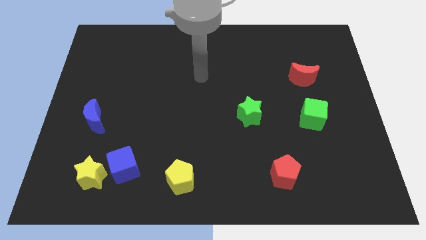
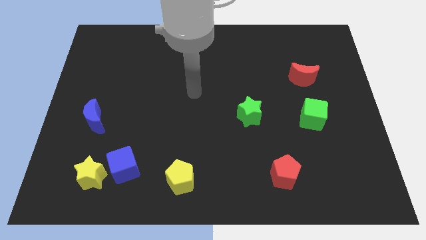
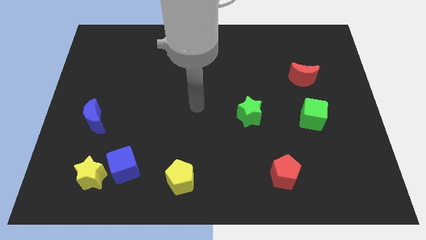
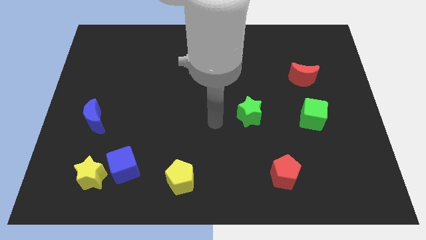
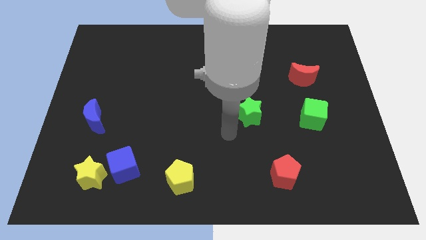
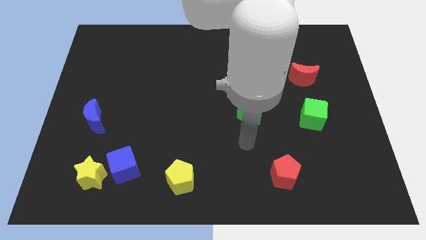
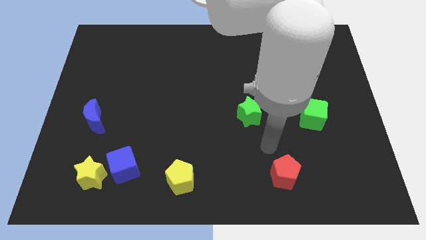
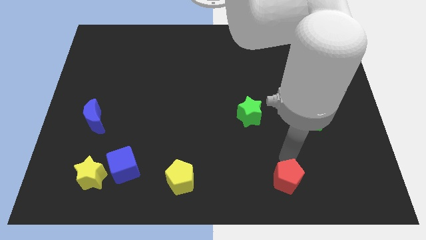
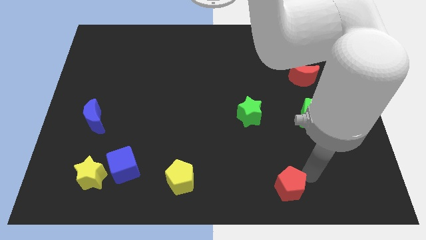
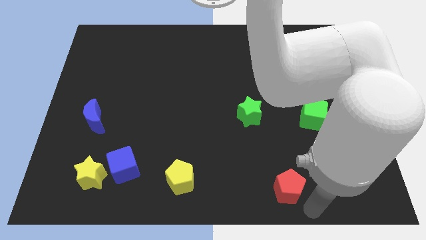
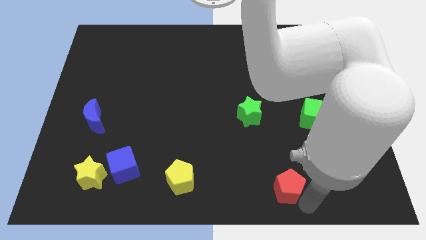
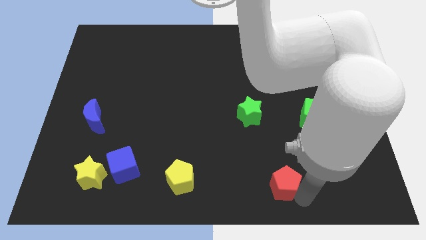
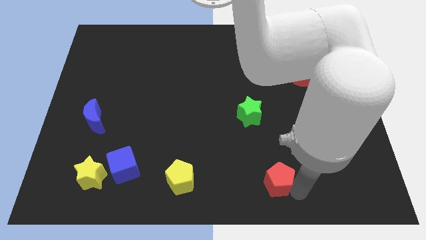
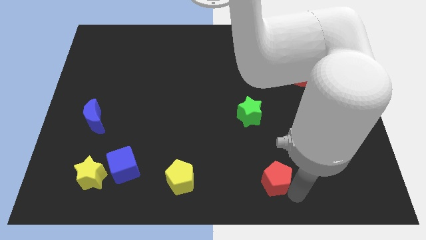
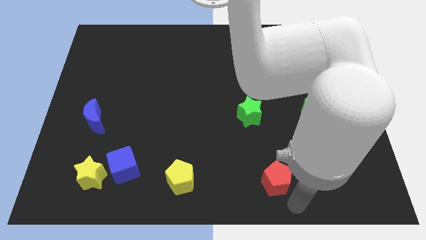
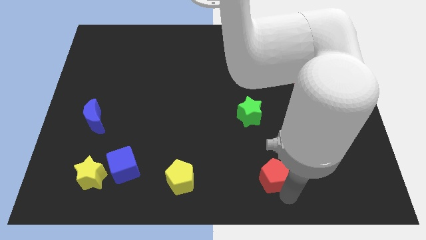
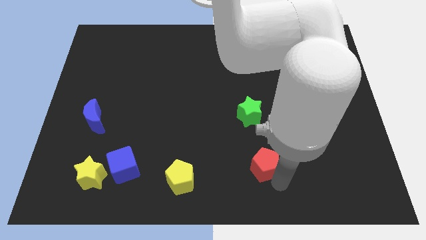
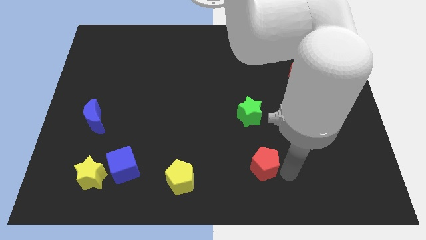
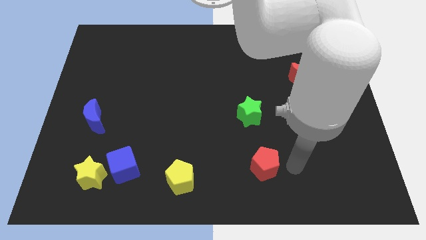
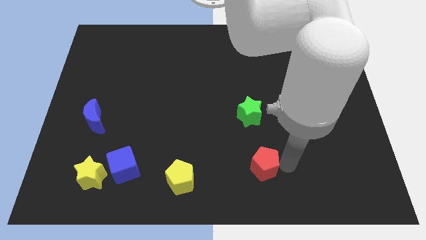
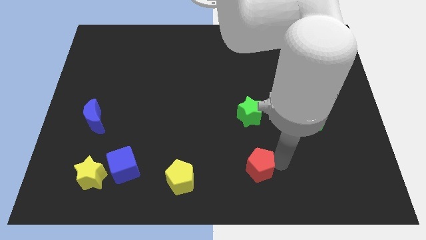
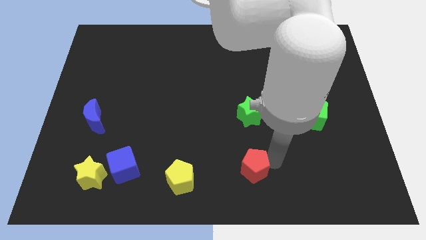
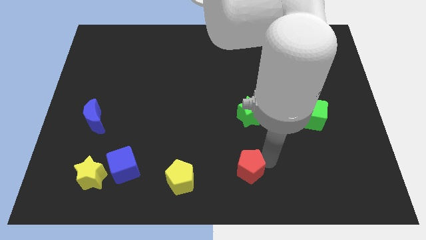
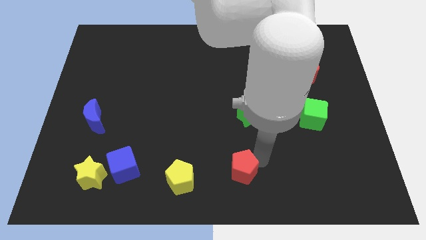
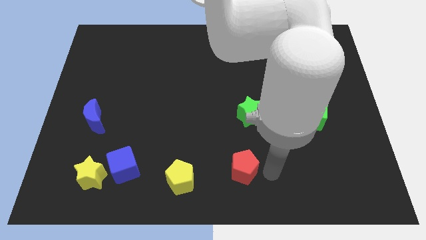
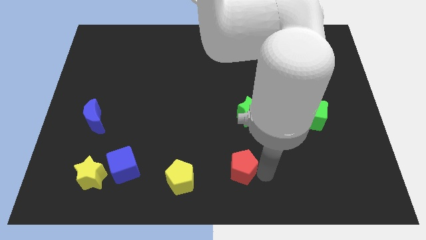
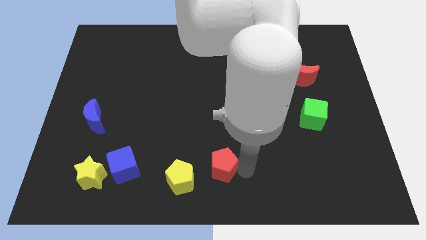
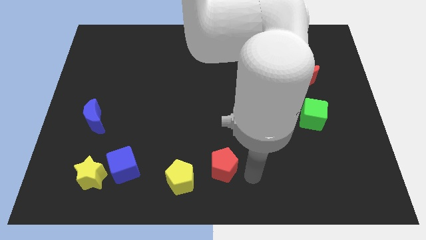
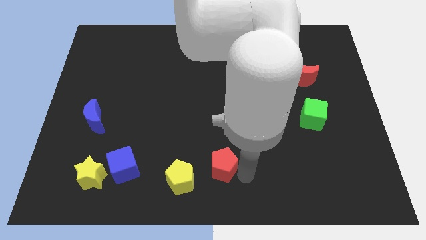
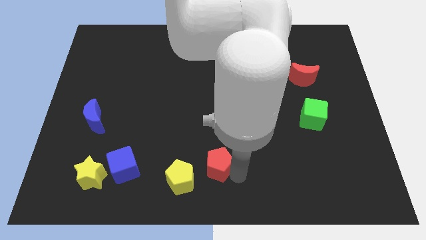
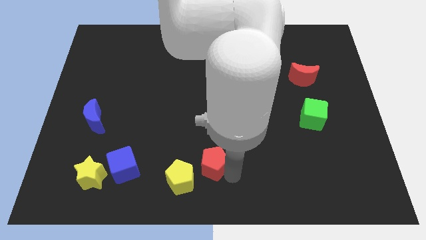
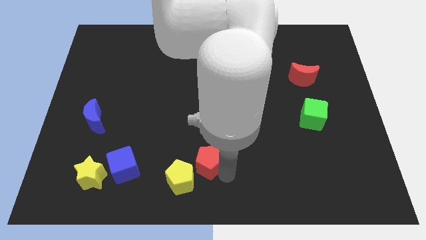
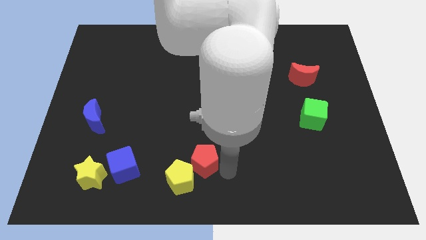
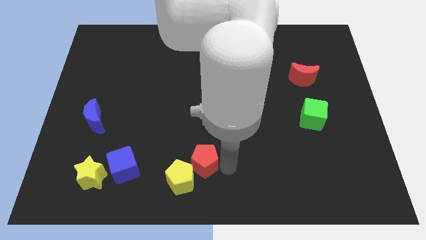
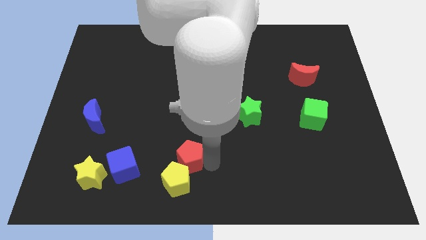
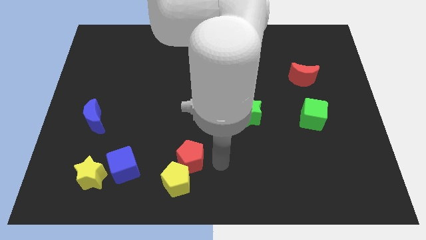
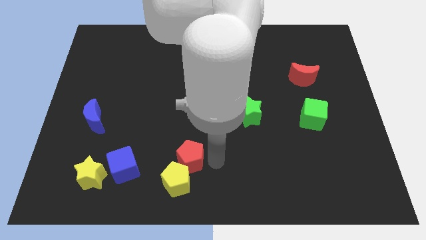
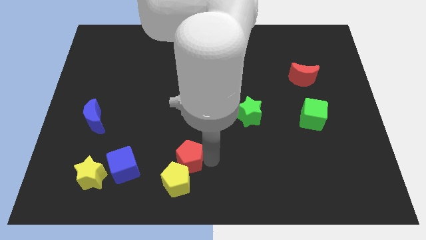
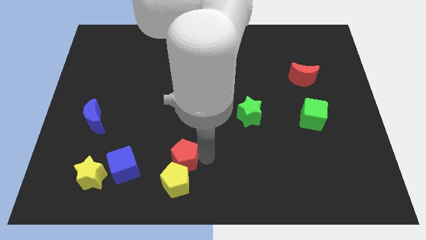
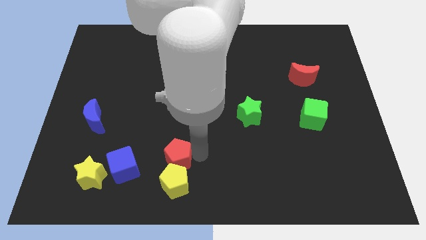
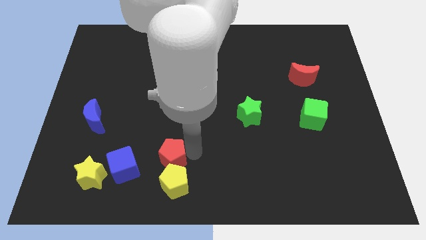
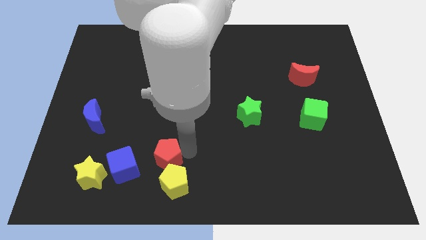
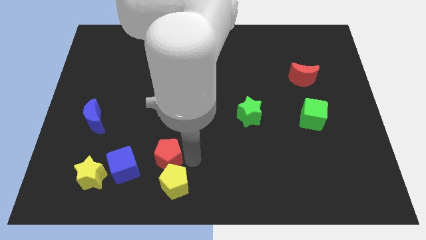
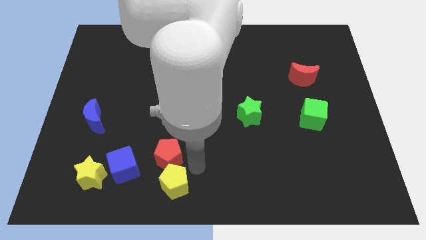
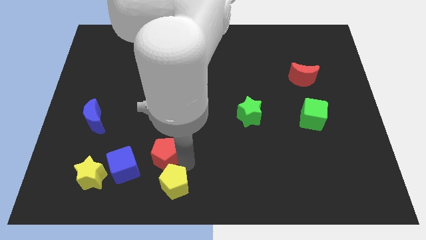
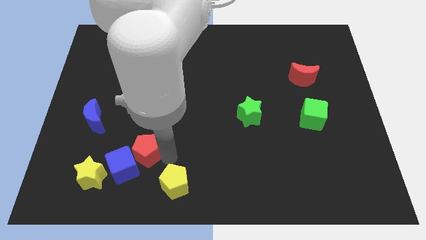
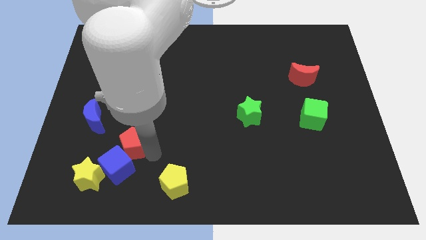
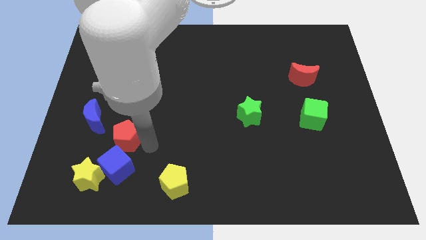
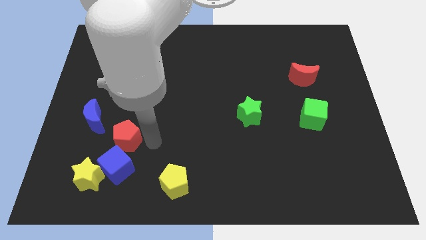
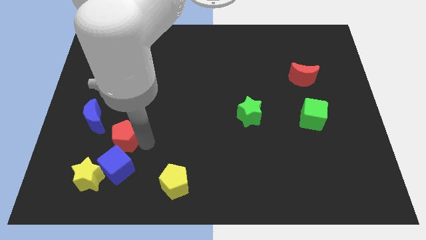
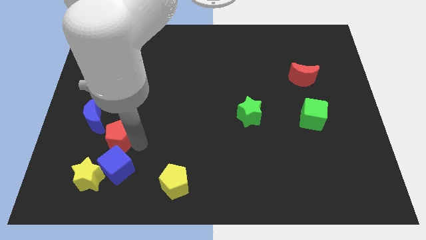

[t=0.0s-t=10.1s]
move the red pentagon above the yellow star

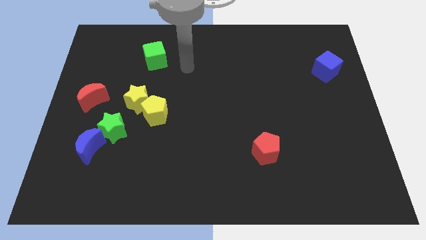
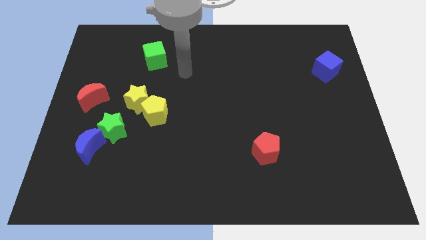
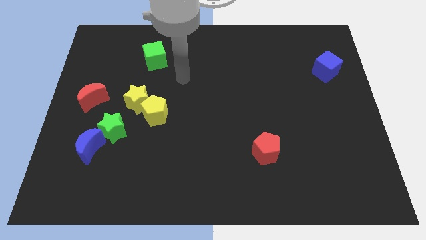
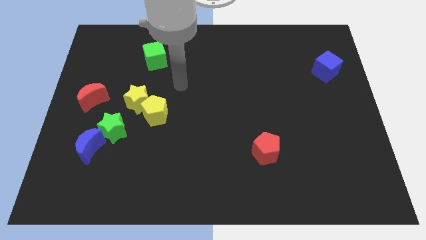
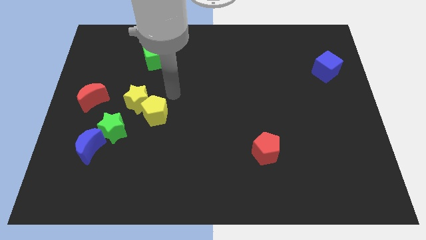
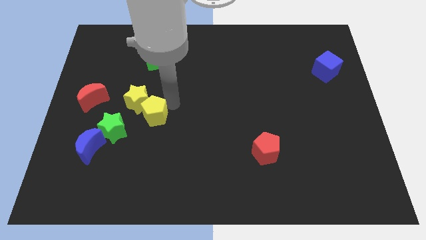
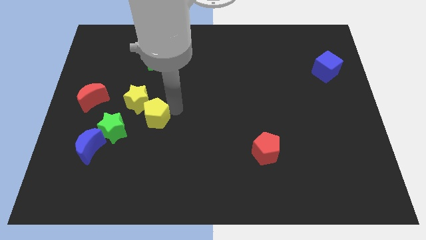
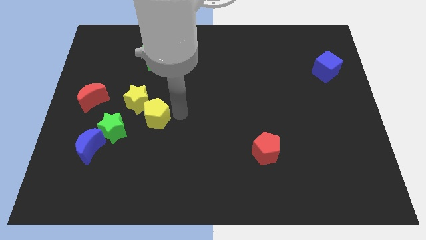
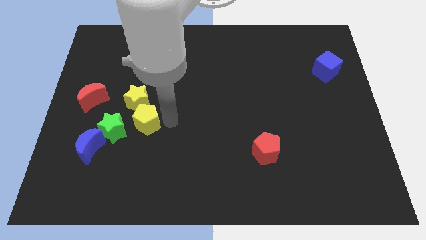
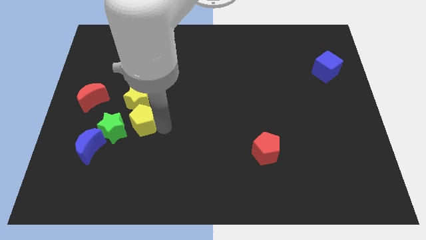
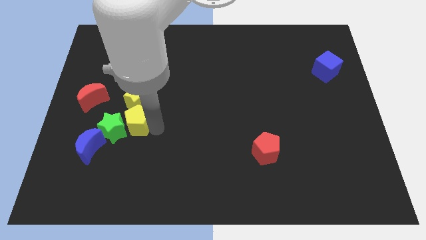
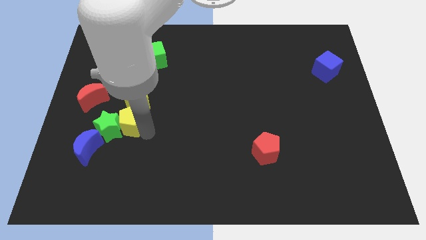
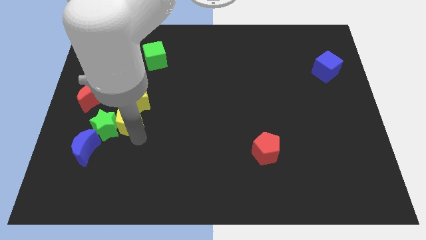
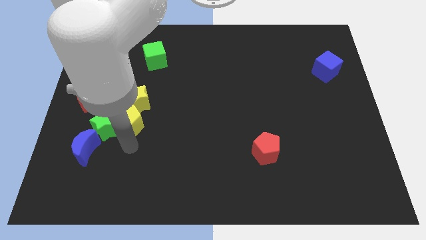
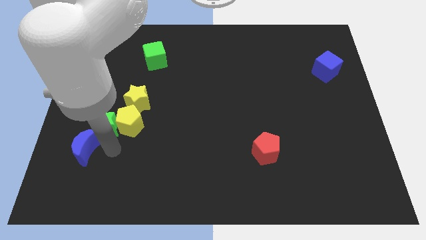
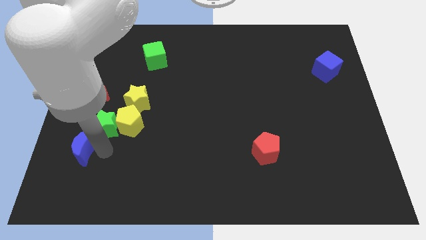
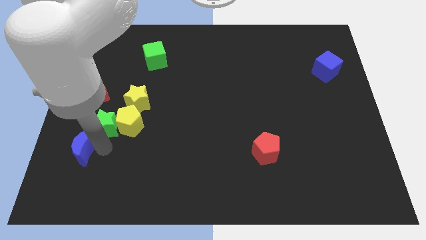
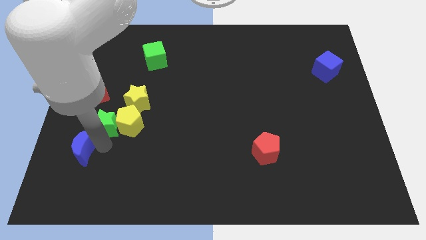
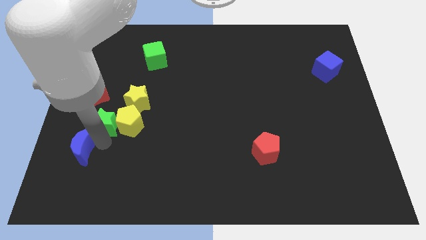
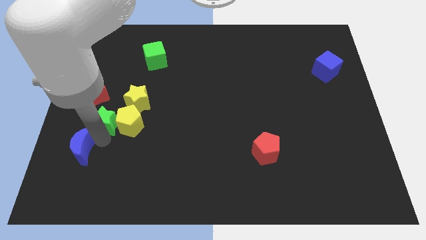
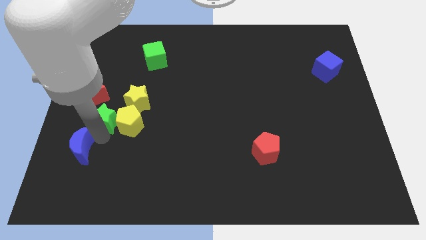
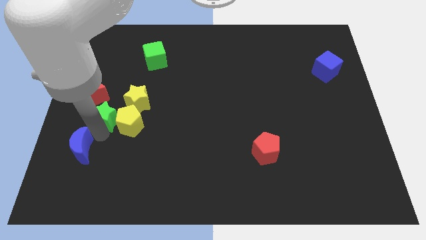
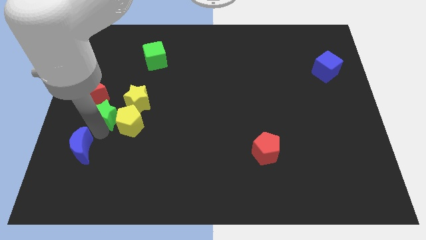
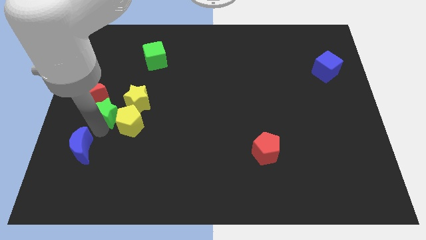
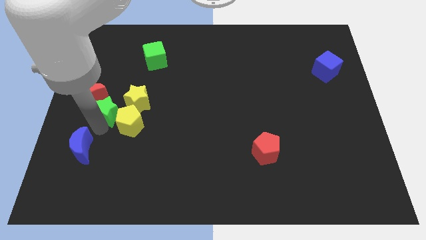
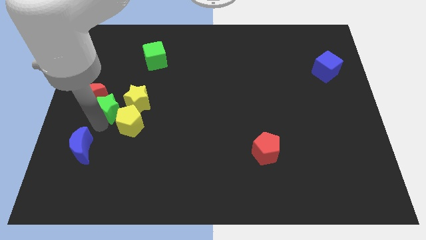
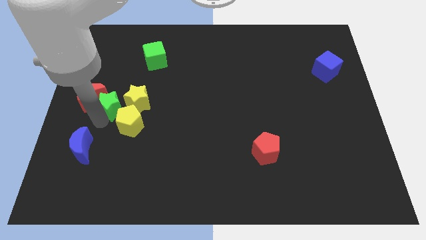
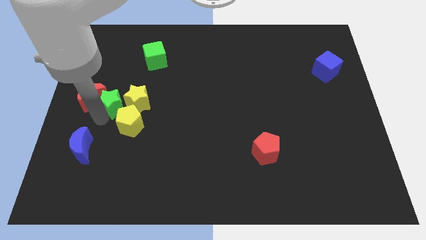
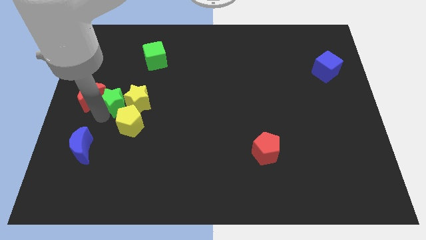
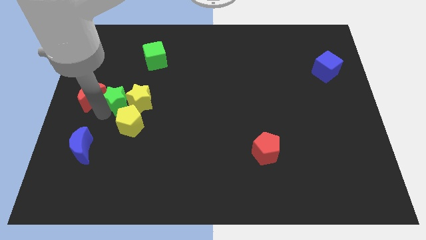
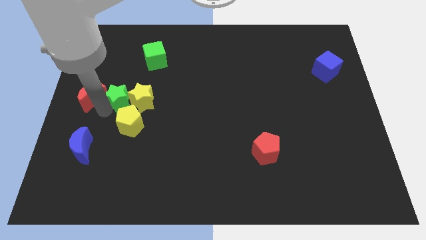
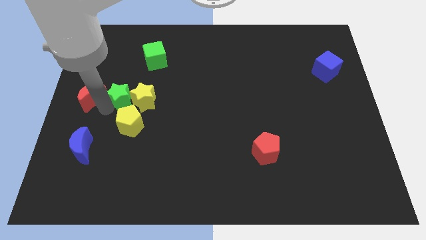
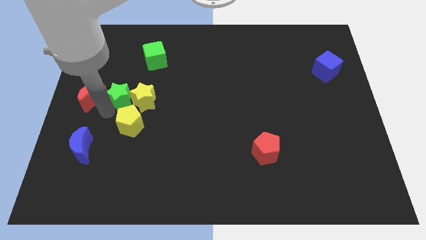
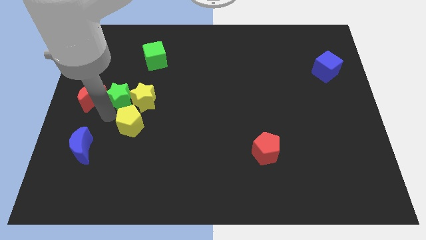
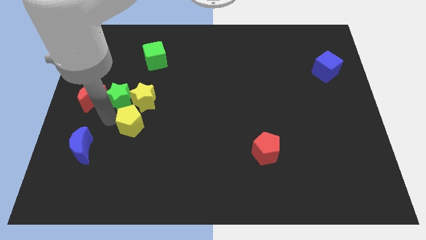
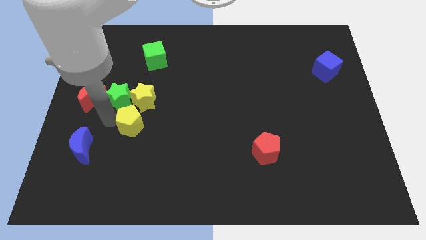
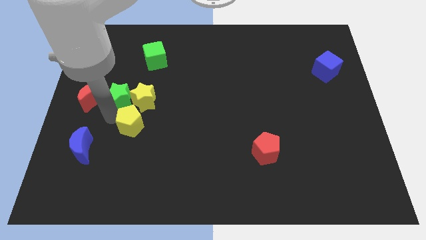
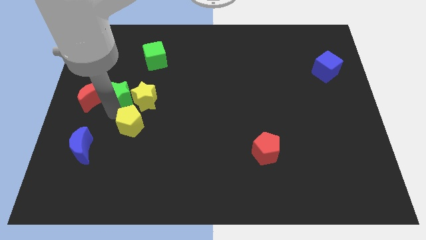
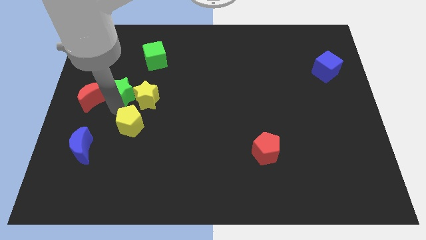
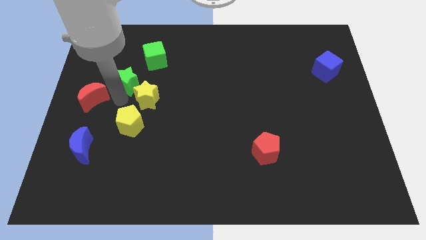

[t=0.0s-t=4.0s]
slide the green star to the top of the yellow star
